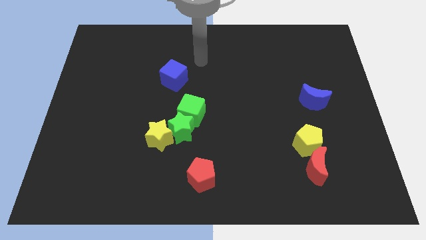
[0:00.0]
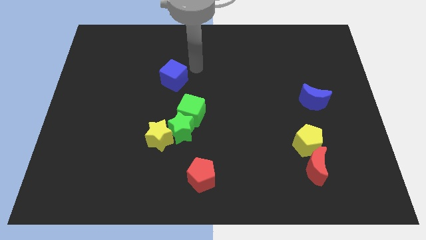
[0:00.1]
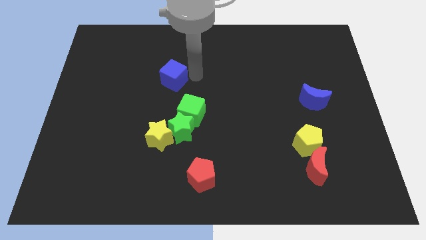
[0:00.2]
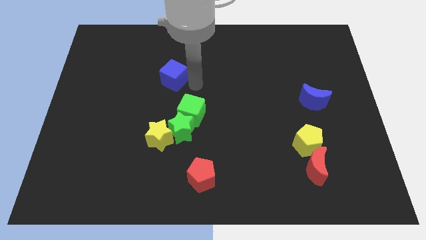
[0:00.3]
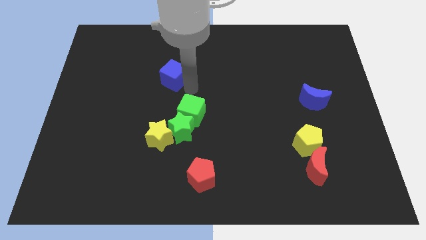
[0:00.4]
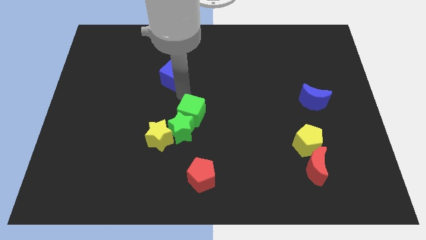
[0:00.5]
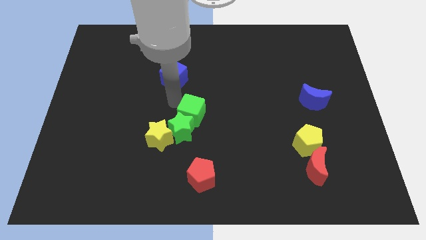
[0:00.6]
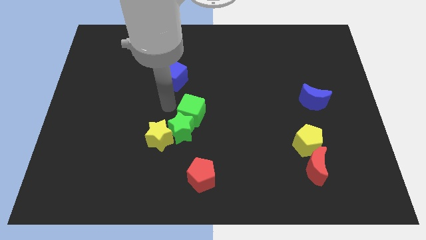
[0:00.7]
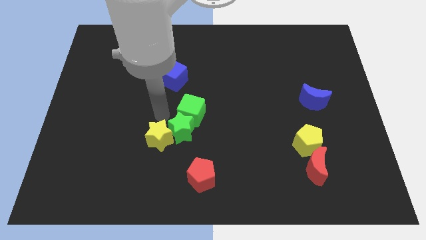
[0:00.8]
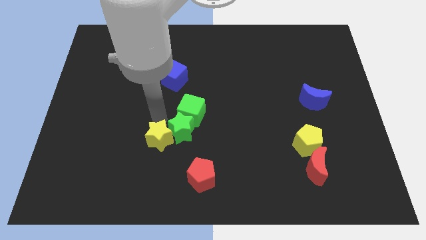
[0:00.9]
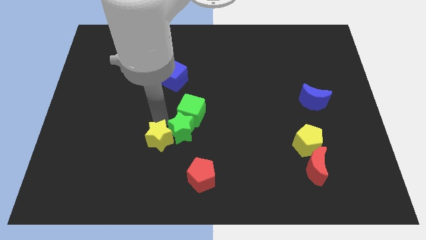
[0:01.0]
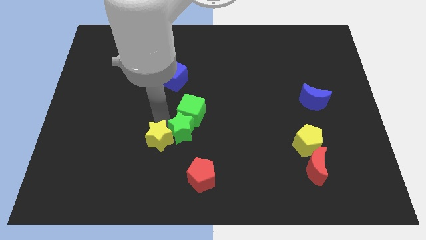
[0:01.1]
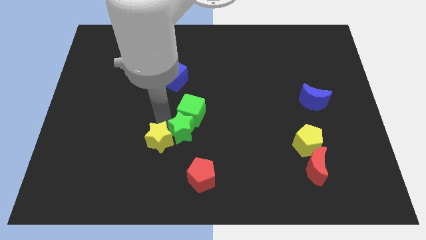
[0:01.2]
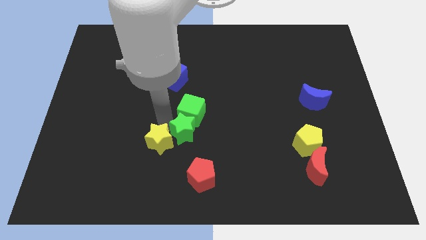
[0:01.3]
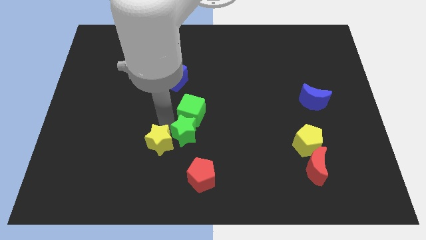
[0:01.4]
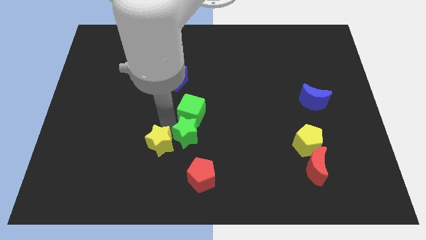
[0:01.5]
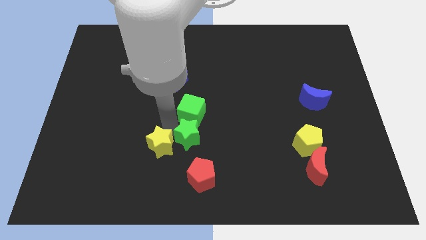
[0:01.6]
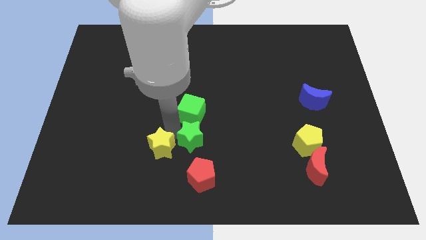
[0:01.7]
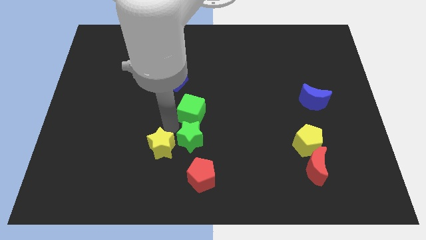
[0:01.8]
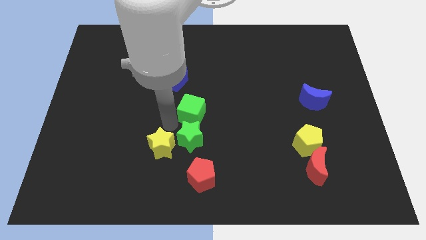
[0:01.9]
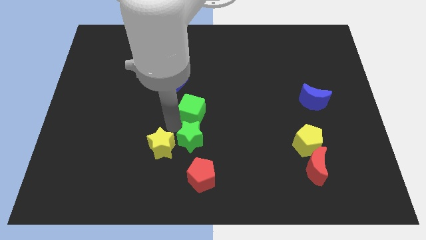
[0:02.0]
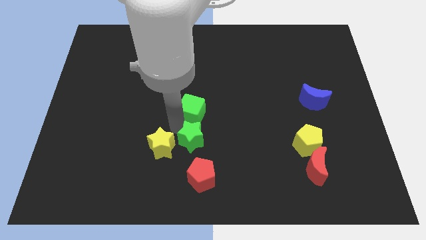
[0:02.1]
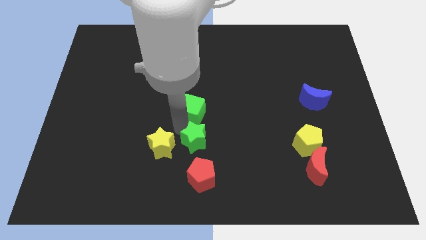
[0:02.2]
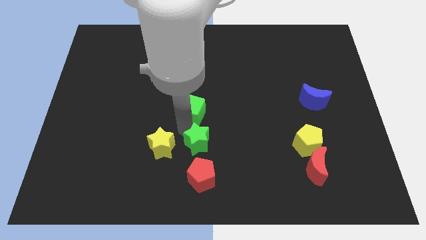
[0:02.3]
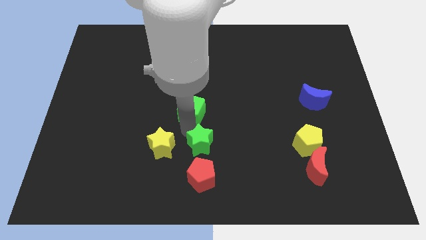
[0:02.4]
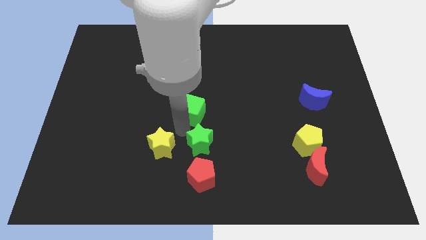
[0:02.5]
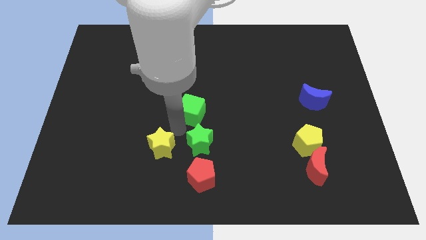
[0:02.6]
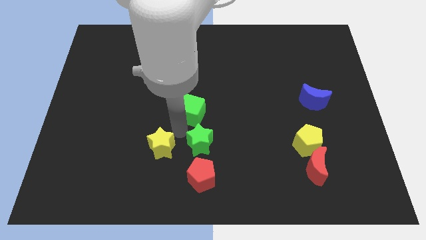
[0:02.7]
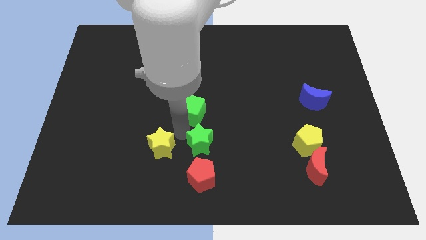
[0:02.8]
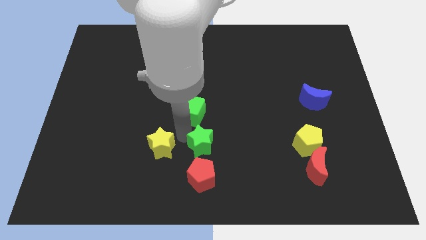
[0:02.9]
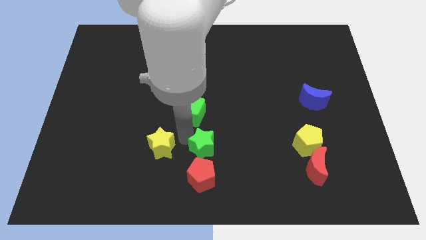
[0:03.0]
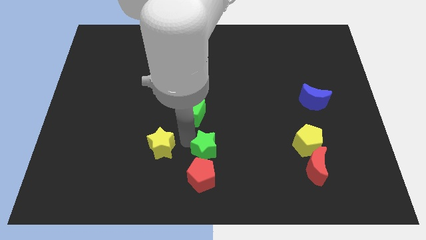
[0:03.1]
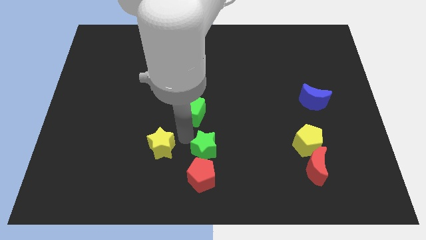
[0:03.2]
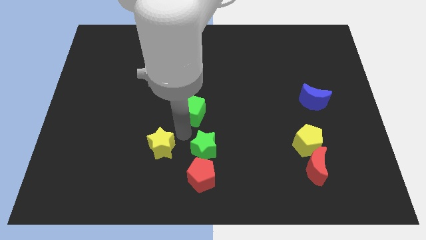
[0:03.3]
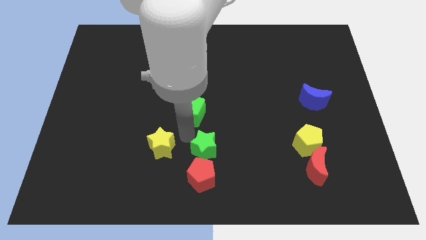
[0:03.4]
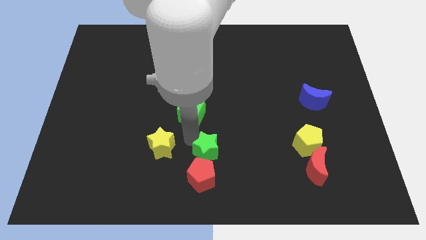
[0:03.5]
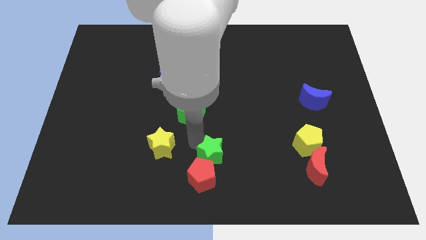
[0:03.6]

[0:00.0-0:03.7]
pull the green star apart from the yellow star and green cube

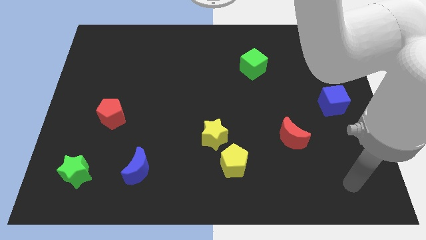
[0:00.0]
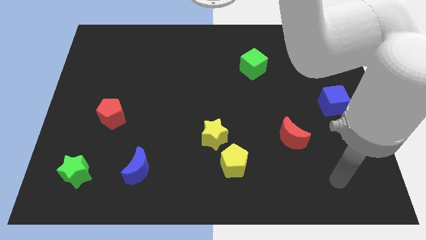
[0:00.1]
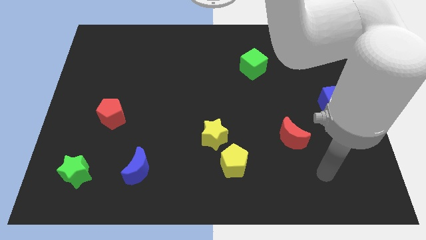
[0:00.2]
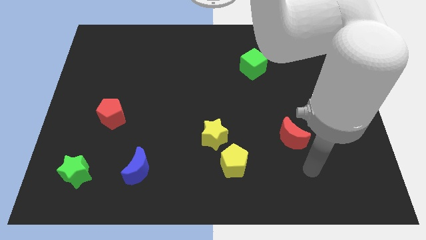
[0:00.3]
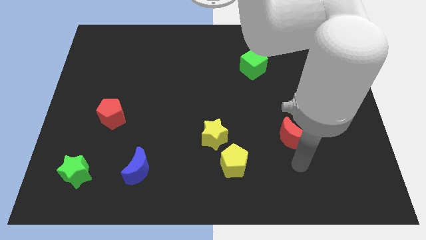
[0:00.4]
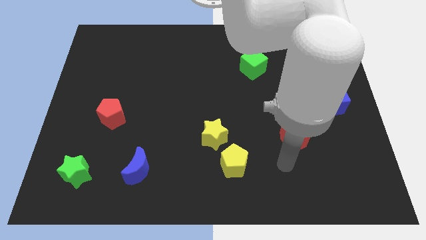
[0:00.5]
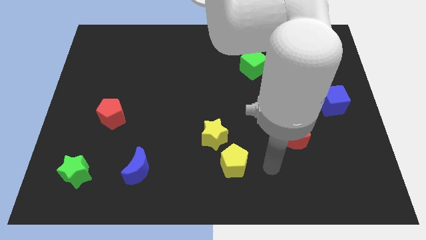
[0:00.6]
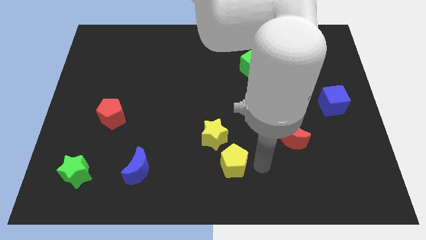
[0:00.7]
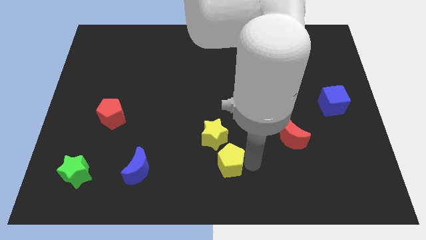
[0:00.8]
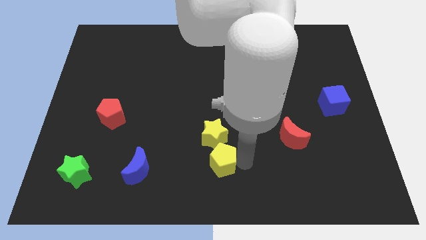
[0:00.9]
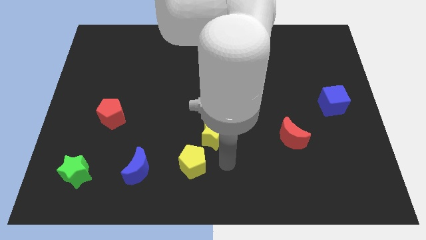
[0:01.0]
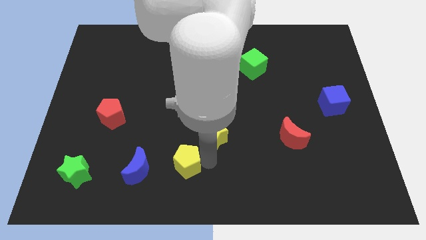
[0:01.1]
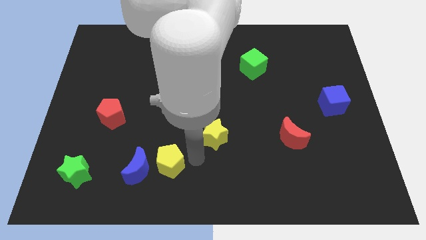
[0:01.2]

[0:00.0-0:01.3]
move the yellow star away from the yellow pentagon

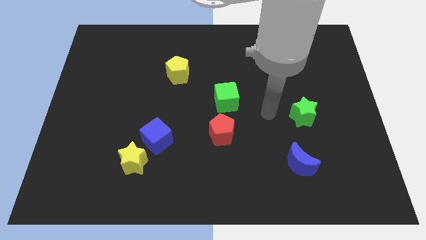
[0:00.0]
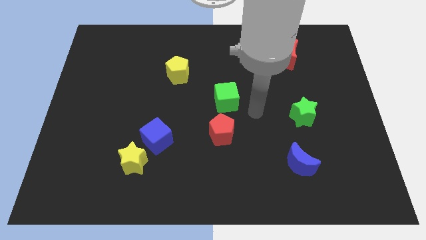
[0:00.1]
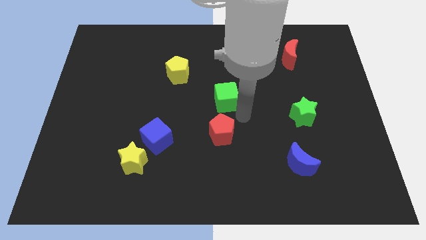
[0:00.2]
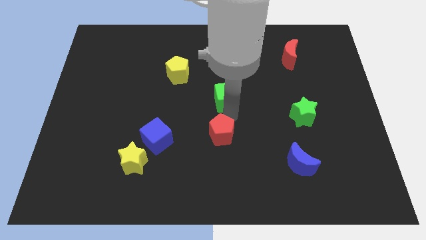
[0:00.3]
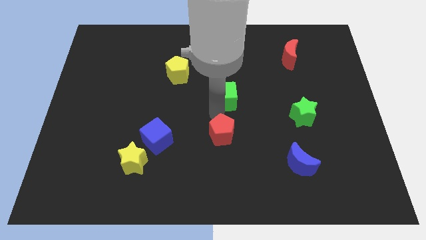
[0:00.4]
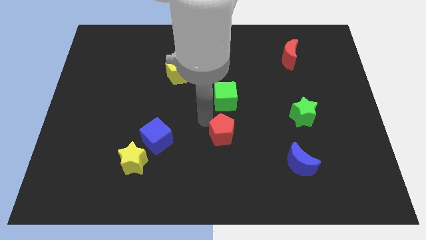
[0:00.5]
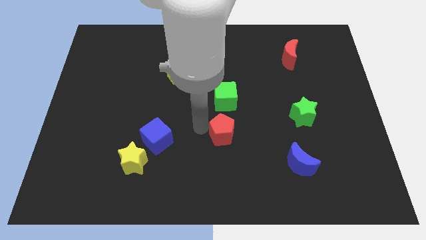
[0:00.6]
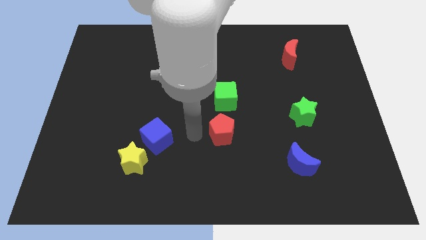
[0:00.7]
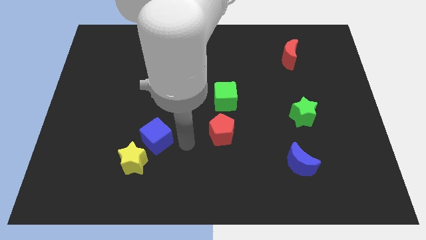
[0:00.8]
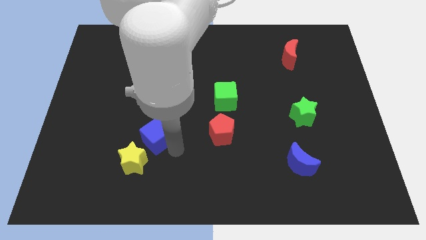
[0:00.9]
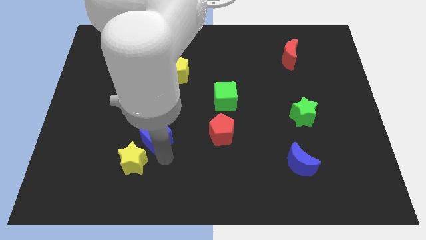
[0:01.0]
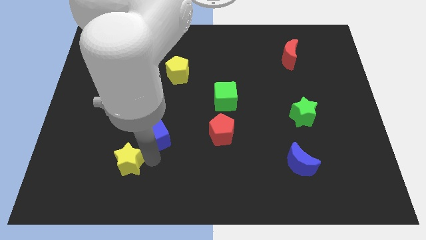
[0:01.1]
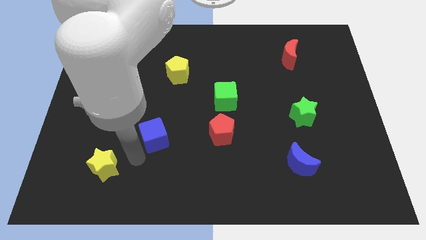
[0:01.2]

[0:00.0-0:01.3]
pull the blue cube apart from the yellow star

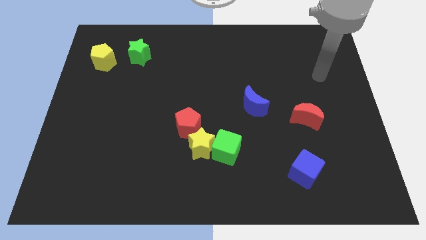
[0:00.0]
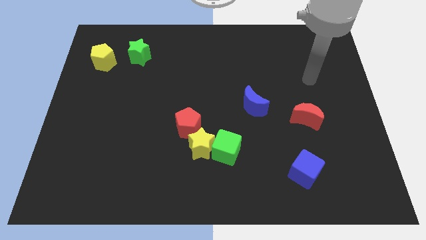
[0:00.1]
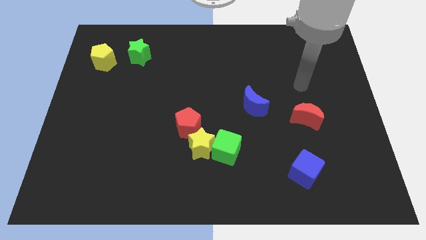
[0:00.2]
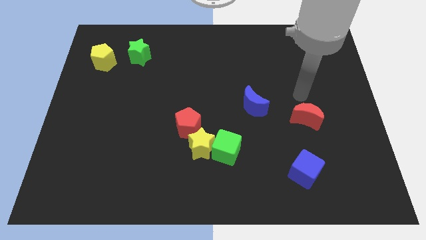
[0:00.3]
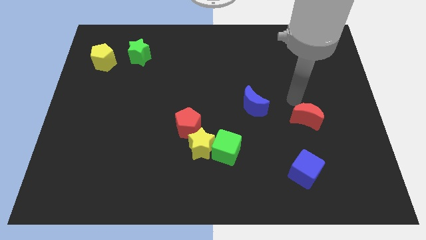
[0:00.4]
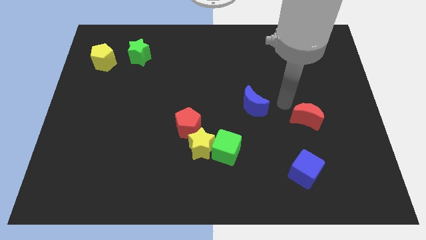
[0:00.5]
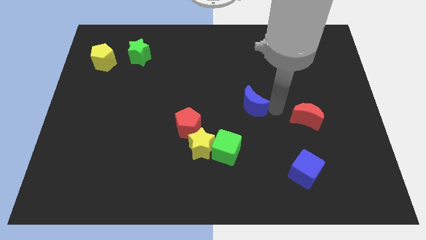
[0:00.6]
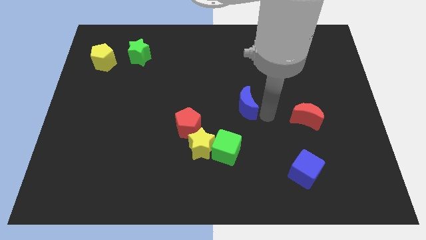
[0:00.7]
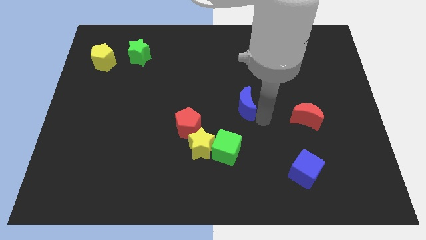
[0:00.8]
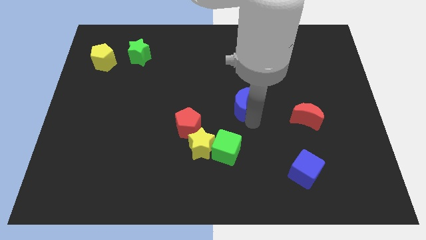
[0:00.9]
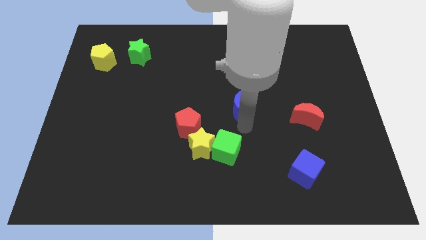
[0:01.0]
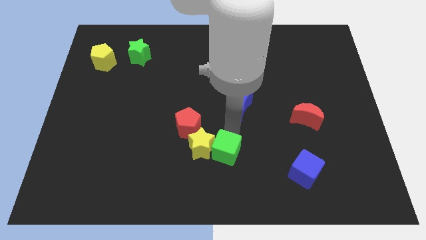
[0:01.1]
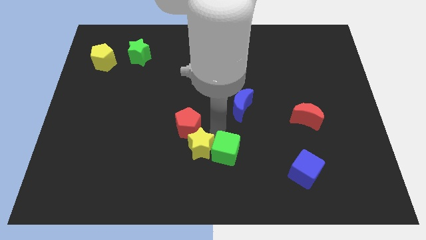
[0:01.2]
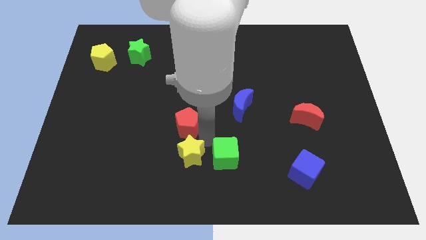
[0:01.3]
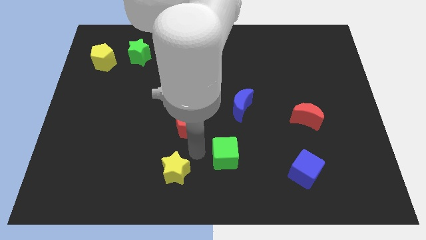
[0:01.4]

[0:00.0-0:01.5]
move the green cube away from the yellow star

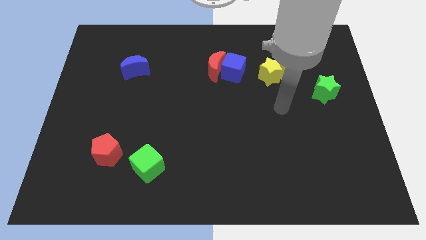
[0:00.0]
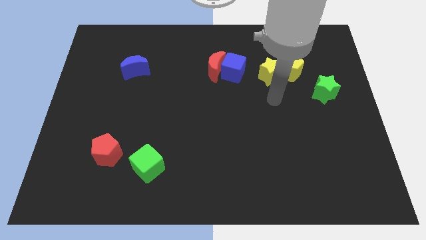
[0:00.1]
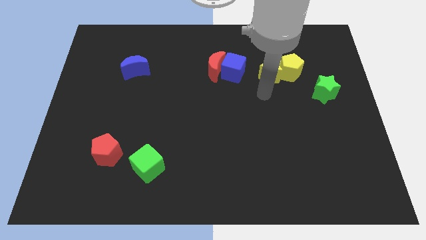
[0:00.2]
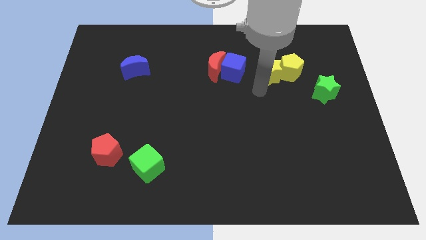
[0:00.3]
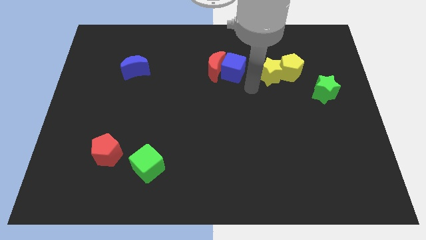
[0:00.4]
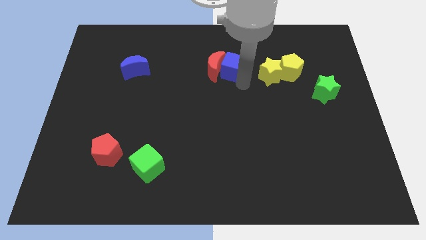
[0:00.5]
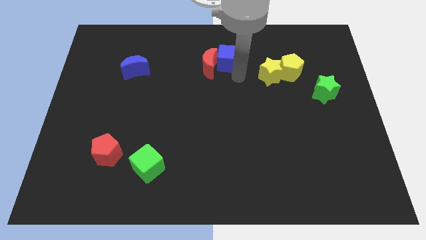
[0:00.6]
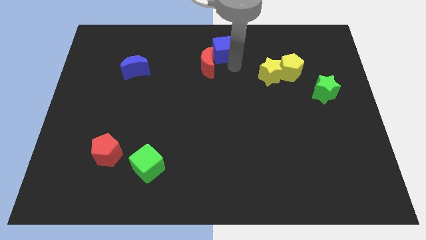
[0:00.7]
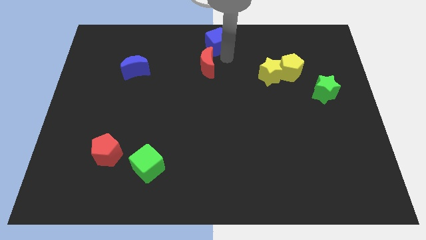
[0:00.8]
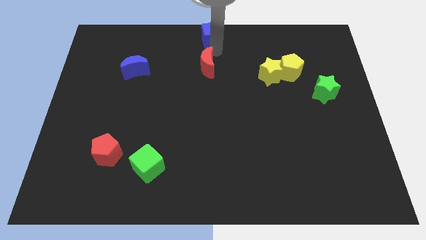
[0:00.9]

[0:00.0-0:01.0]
pull the red moon apart from the blue cube

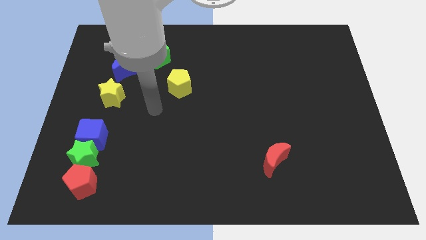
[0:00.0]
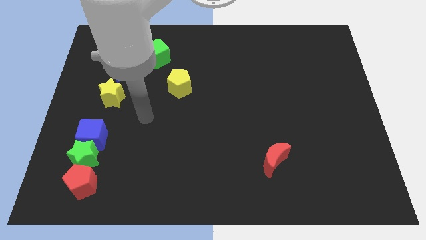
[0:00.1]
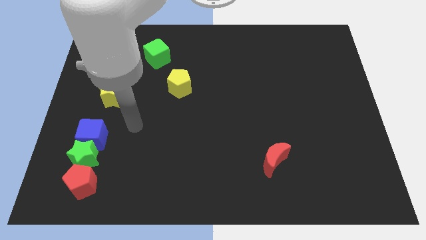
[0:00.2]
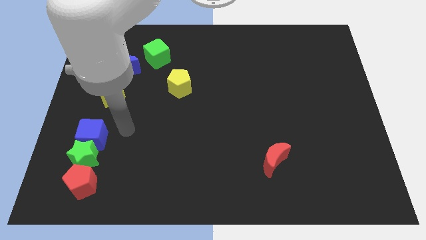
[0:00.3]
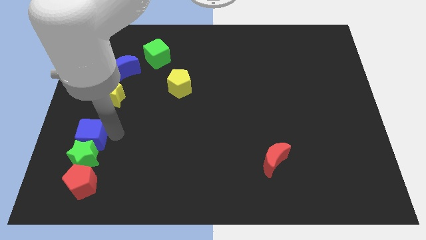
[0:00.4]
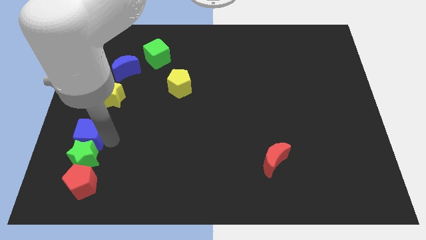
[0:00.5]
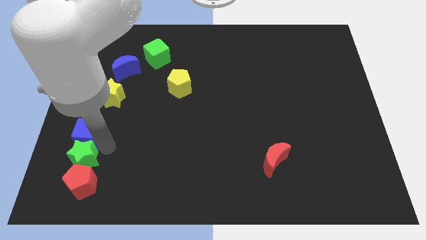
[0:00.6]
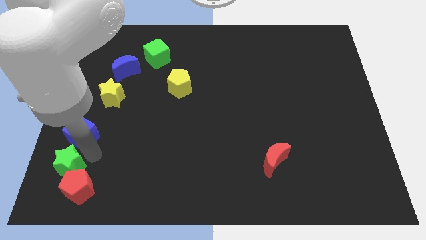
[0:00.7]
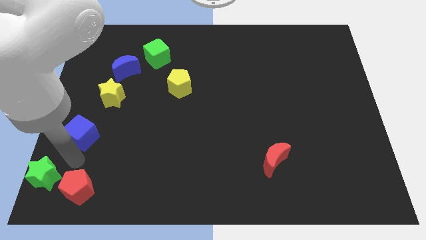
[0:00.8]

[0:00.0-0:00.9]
move the blue cube away from the green star
